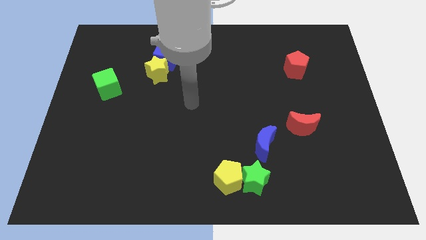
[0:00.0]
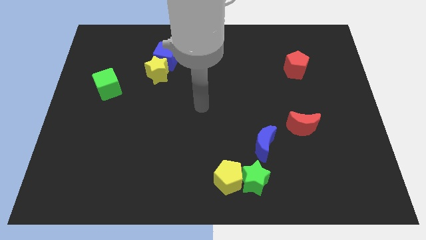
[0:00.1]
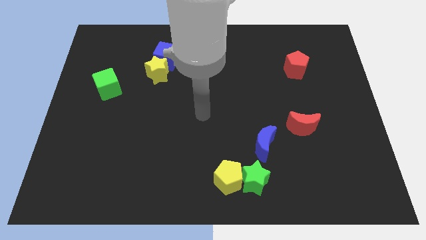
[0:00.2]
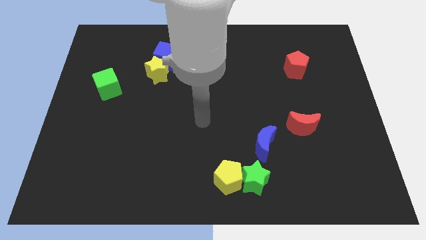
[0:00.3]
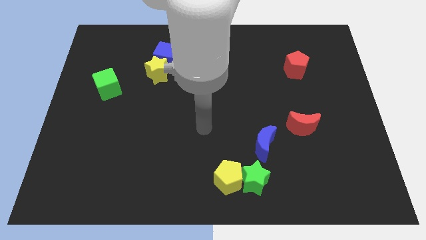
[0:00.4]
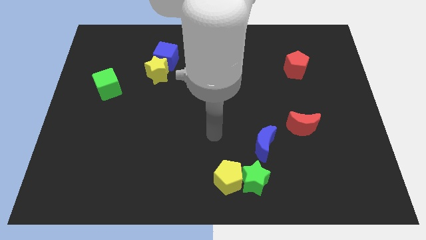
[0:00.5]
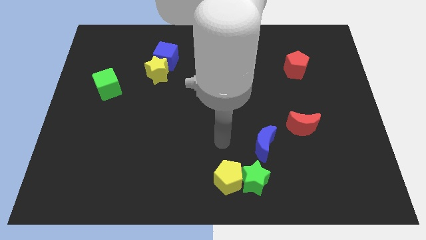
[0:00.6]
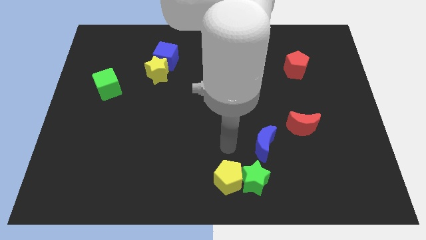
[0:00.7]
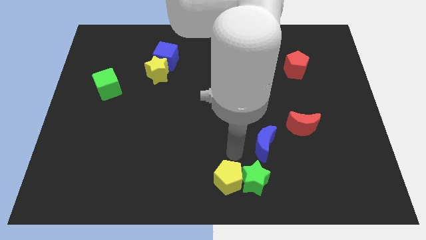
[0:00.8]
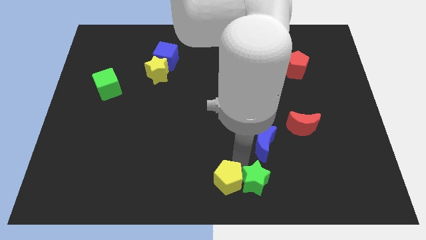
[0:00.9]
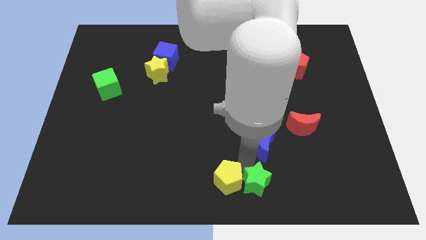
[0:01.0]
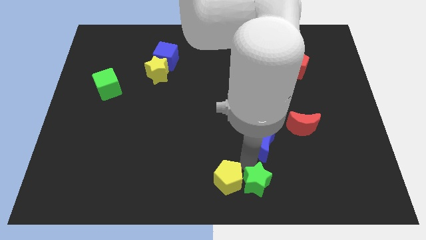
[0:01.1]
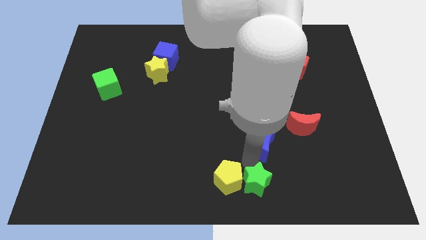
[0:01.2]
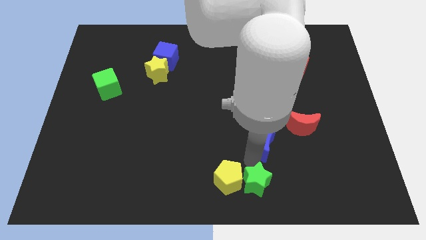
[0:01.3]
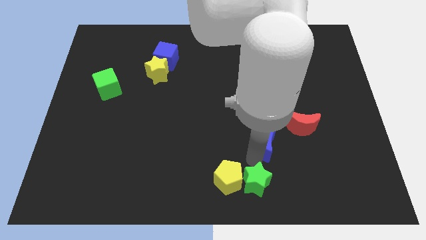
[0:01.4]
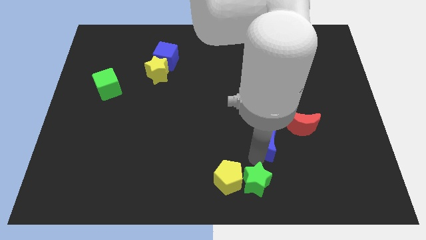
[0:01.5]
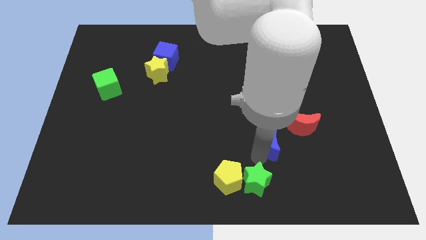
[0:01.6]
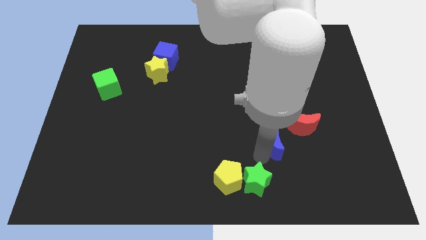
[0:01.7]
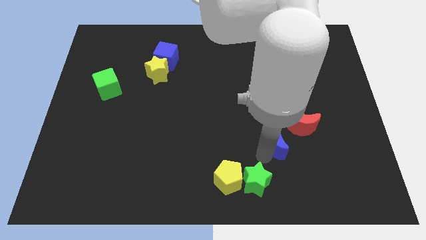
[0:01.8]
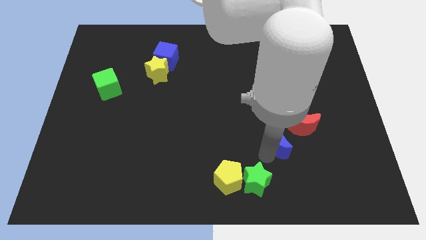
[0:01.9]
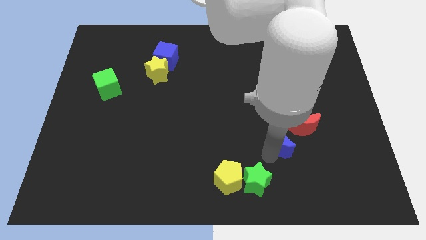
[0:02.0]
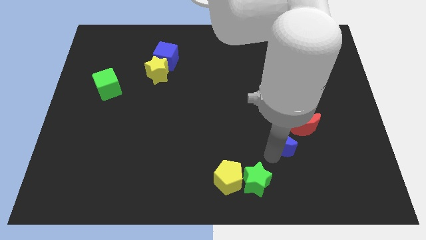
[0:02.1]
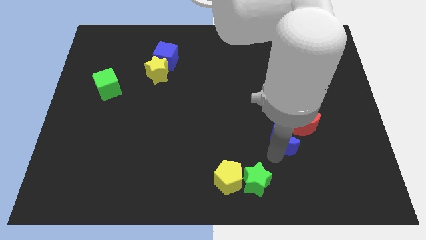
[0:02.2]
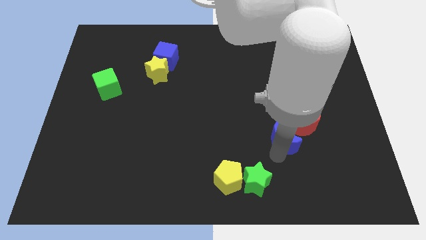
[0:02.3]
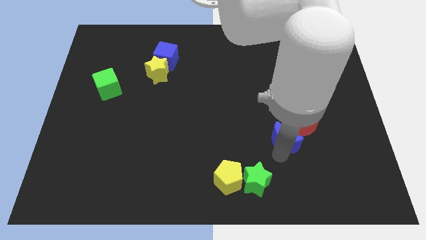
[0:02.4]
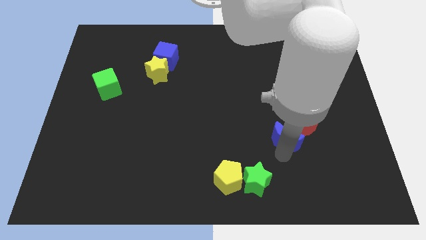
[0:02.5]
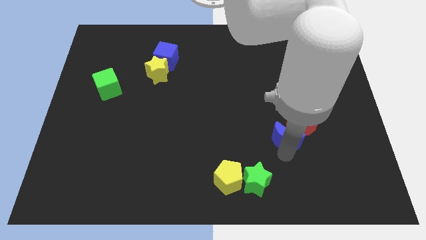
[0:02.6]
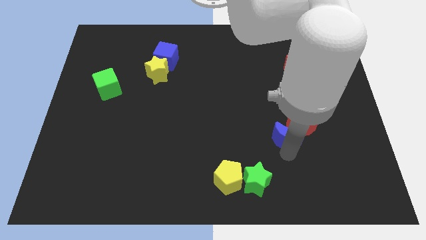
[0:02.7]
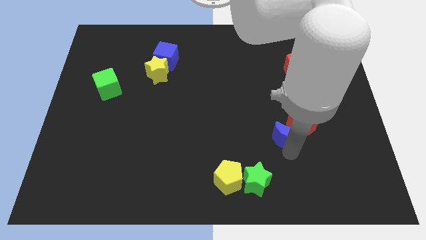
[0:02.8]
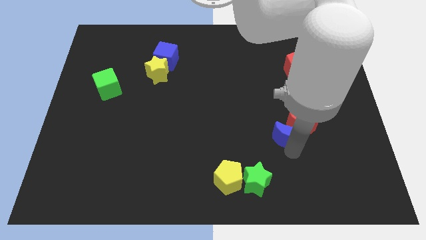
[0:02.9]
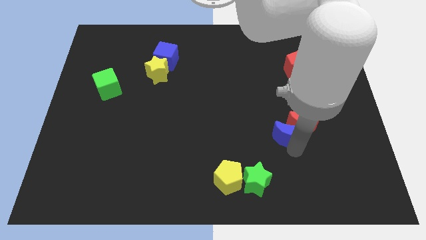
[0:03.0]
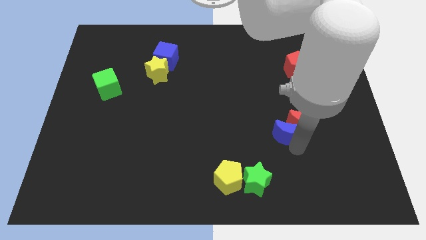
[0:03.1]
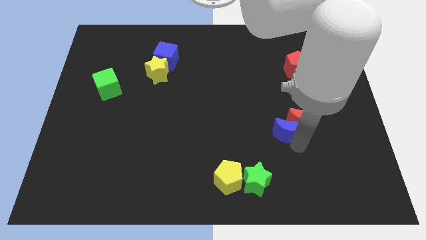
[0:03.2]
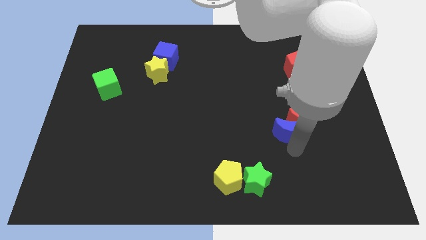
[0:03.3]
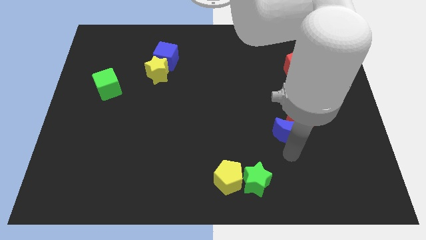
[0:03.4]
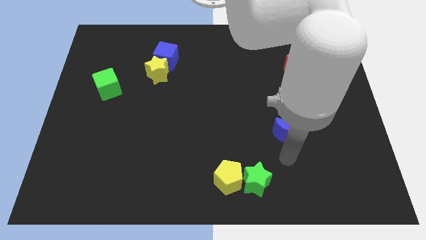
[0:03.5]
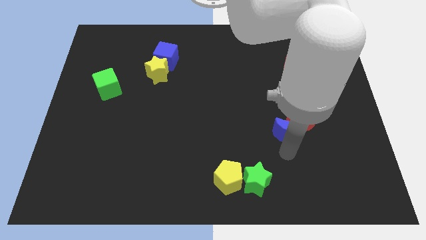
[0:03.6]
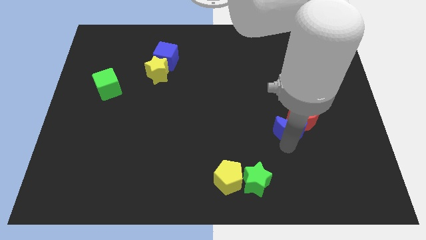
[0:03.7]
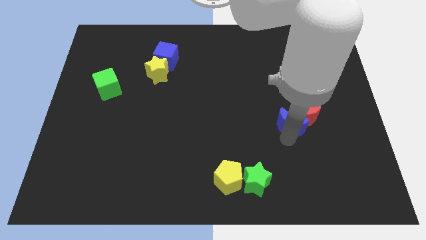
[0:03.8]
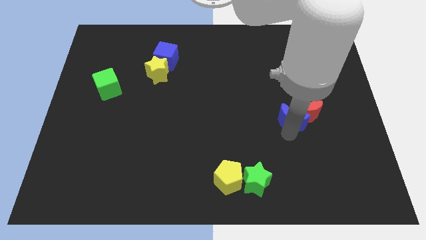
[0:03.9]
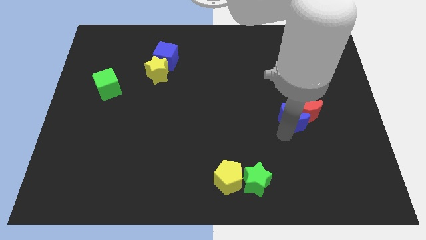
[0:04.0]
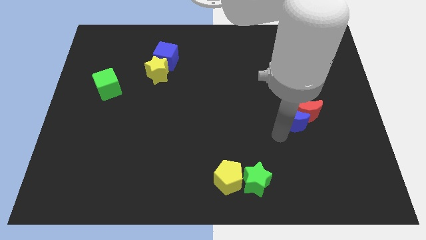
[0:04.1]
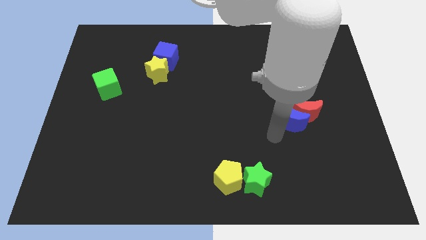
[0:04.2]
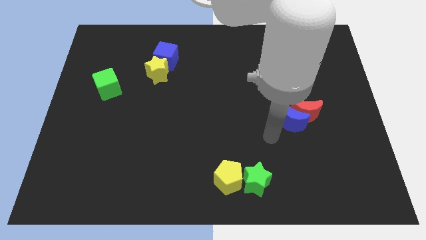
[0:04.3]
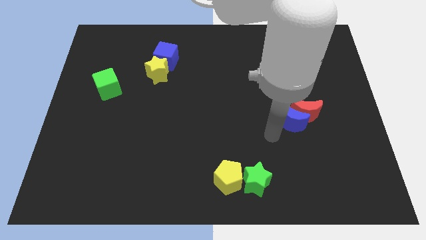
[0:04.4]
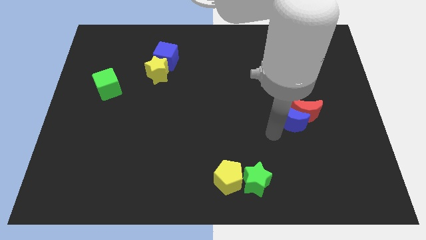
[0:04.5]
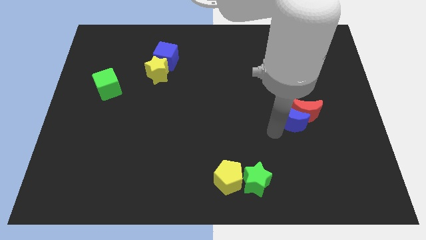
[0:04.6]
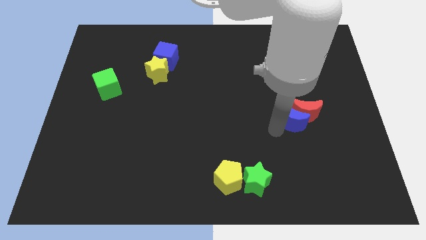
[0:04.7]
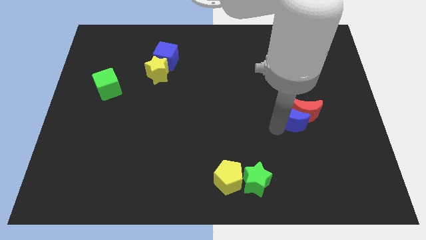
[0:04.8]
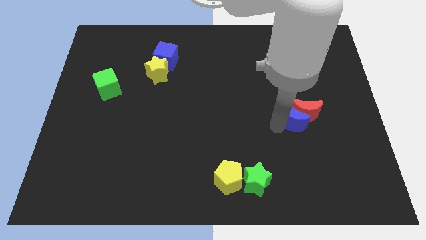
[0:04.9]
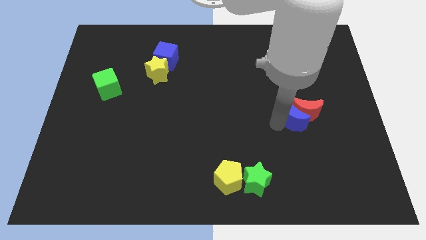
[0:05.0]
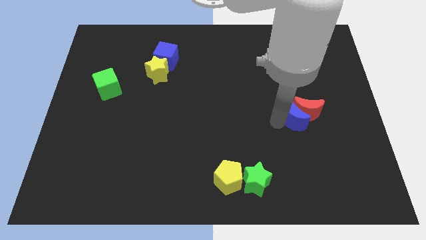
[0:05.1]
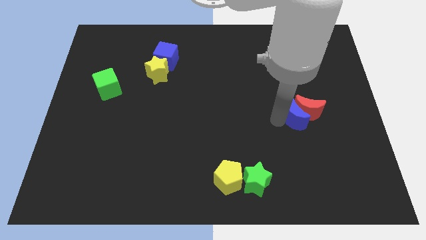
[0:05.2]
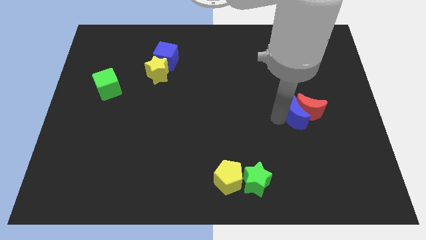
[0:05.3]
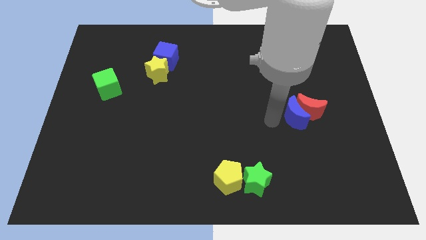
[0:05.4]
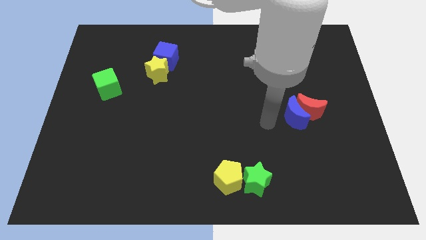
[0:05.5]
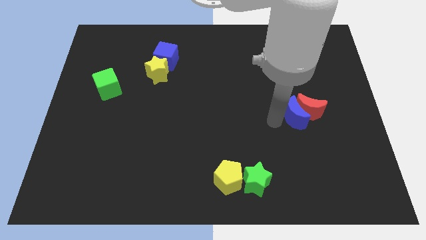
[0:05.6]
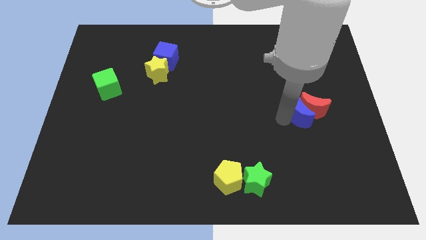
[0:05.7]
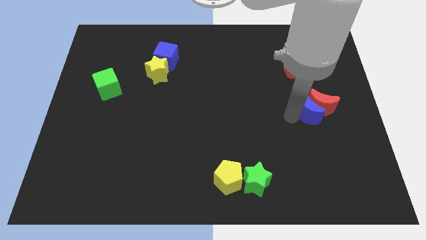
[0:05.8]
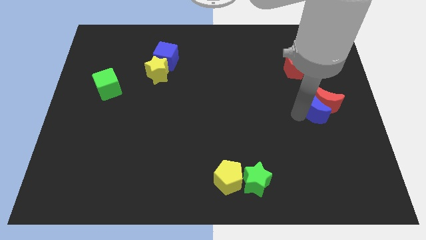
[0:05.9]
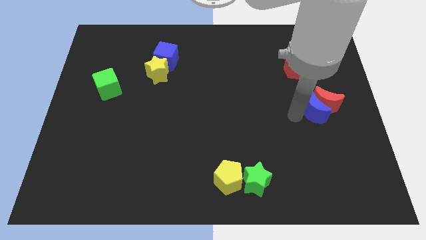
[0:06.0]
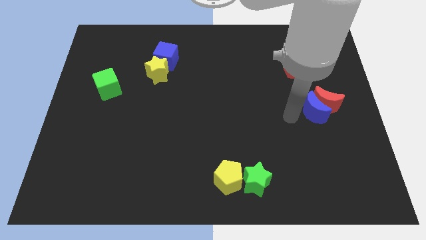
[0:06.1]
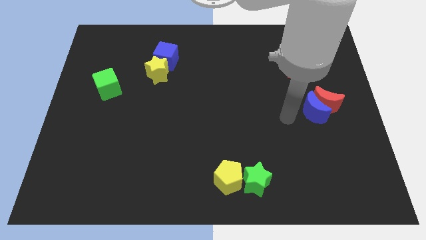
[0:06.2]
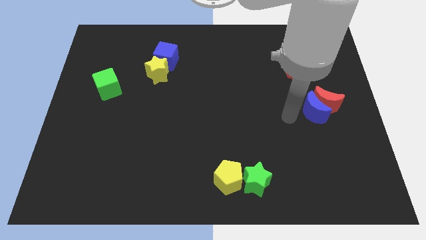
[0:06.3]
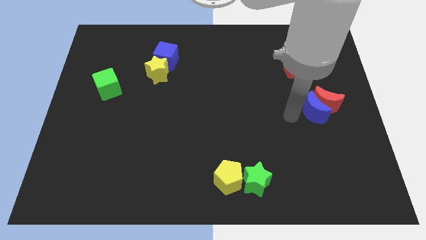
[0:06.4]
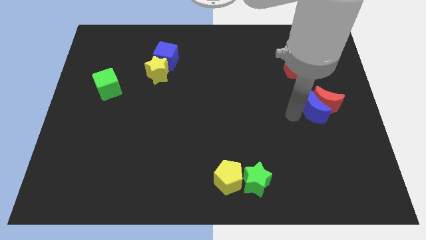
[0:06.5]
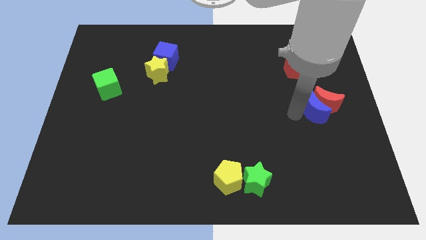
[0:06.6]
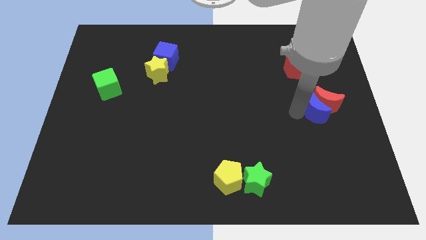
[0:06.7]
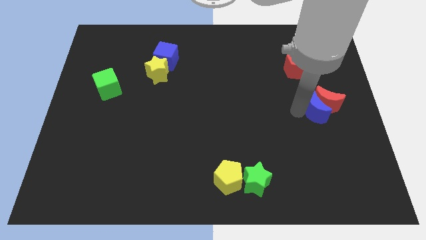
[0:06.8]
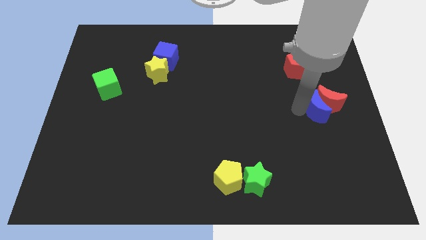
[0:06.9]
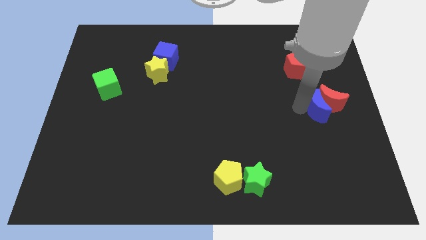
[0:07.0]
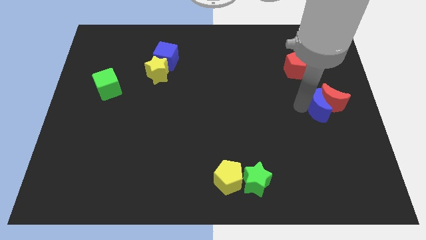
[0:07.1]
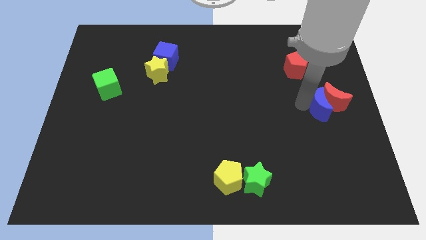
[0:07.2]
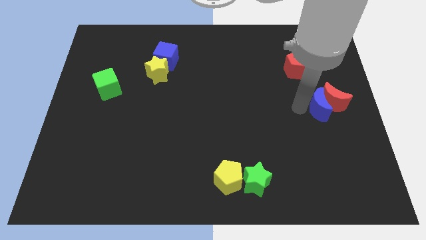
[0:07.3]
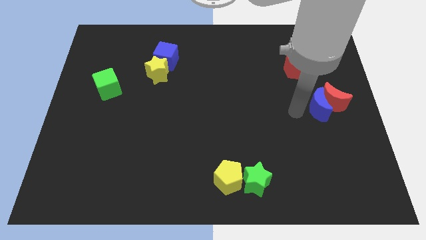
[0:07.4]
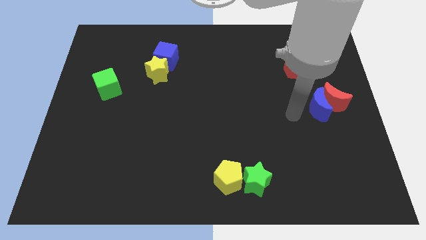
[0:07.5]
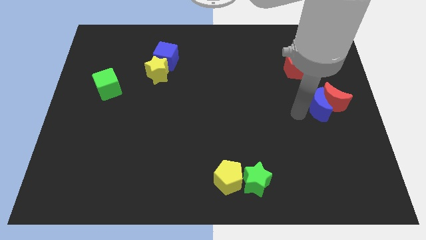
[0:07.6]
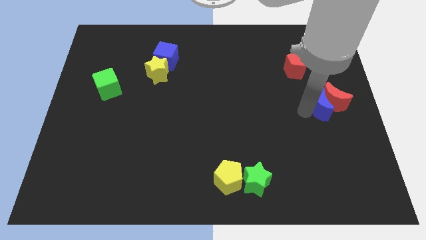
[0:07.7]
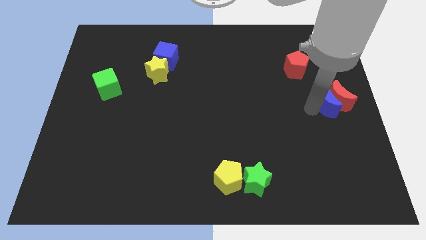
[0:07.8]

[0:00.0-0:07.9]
move the blue moon to the right side of the board
